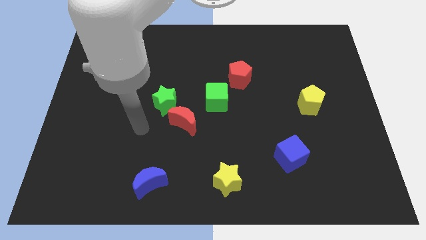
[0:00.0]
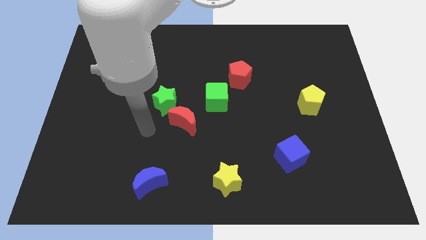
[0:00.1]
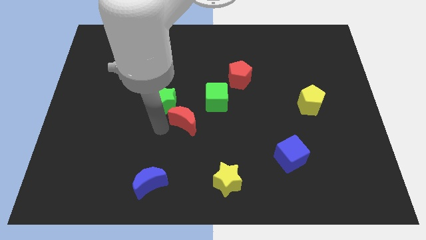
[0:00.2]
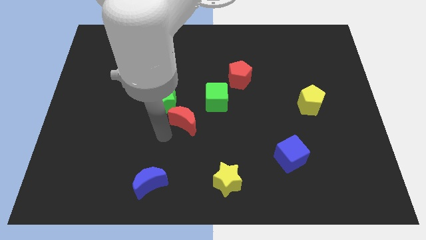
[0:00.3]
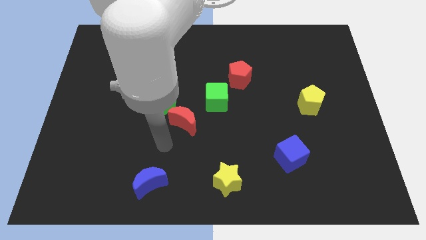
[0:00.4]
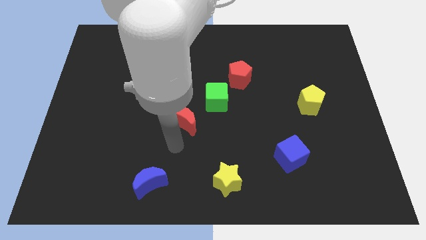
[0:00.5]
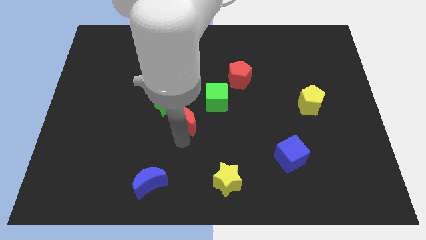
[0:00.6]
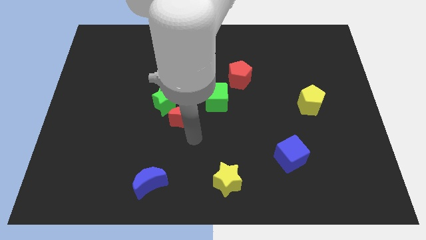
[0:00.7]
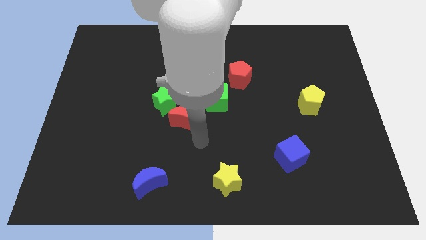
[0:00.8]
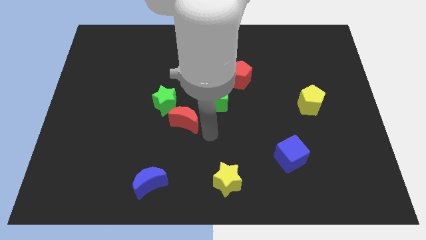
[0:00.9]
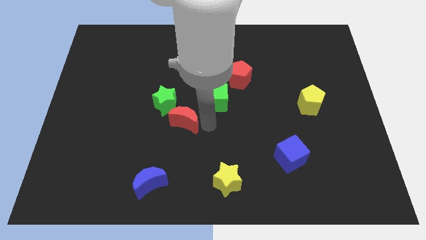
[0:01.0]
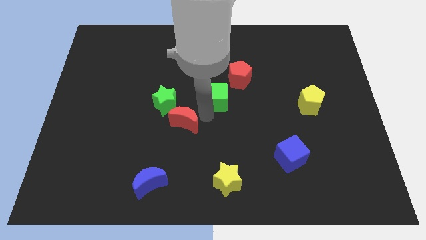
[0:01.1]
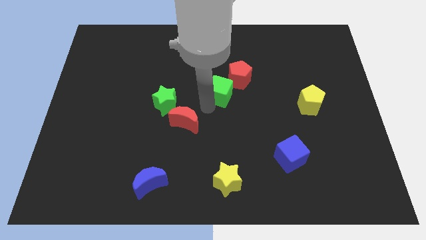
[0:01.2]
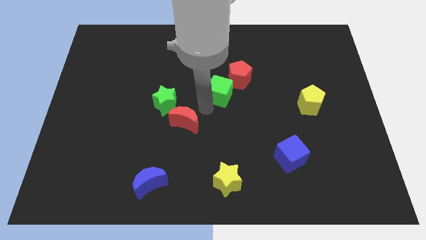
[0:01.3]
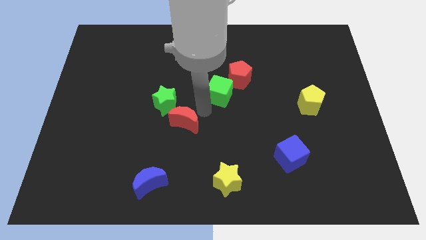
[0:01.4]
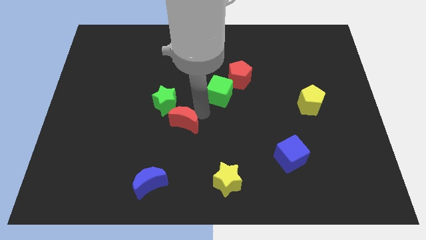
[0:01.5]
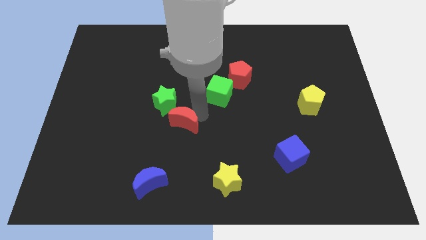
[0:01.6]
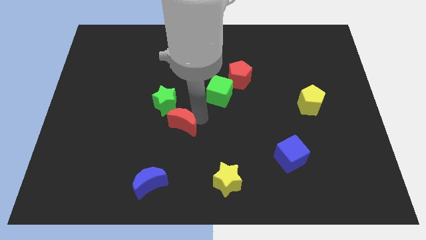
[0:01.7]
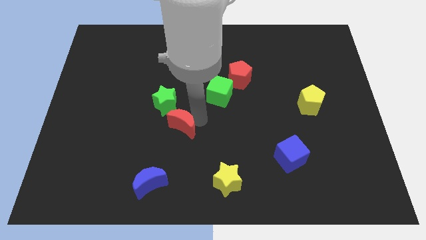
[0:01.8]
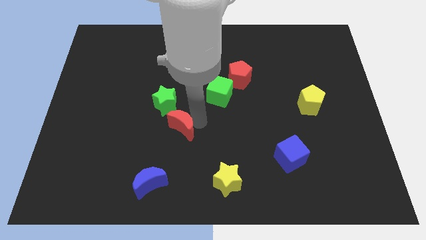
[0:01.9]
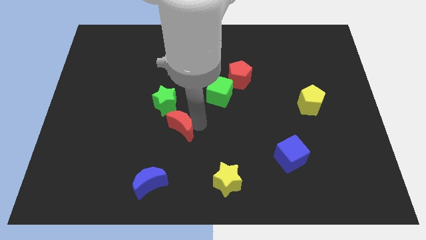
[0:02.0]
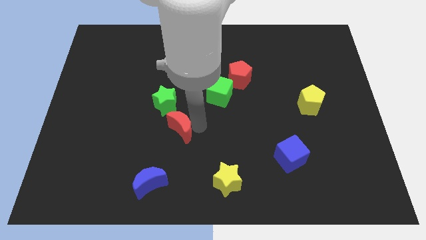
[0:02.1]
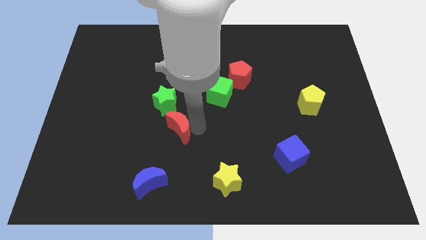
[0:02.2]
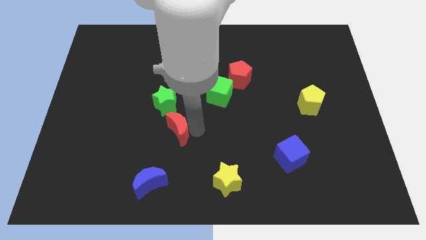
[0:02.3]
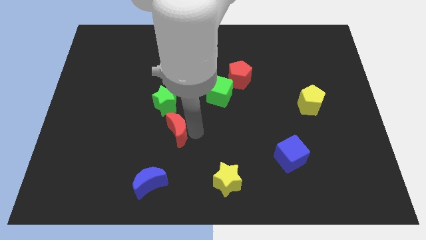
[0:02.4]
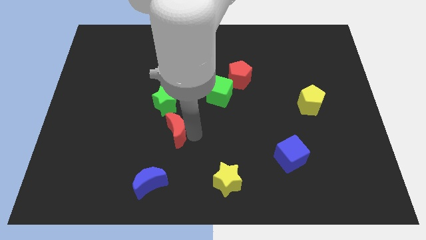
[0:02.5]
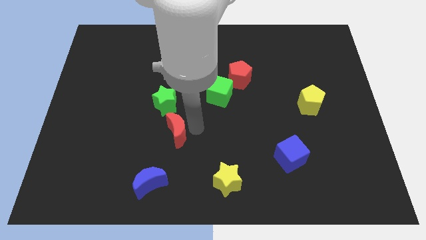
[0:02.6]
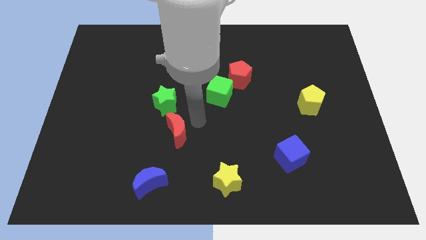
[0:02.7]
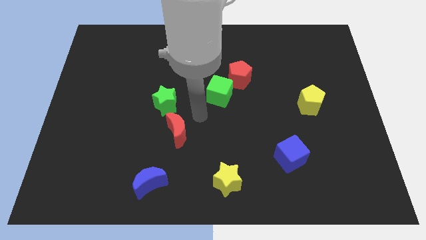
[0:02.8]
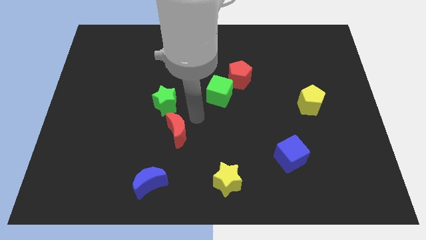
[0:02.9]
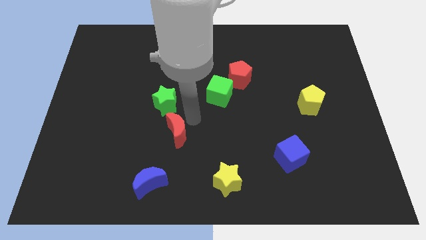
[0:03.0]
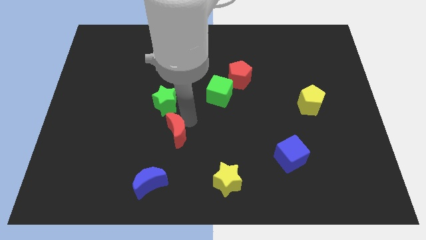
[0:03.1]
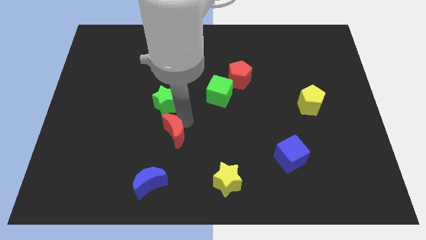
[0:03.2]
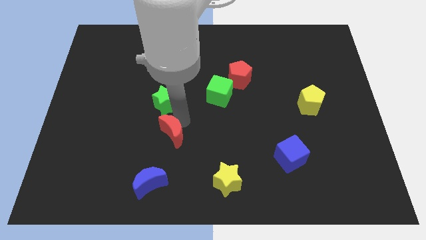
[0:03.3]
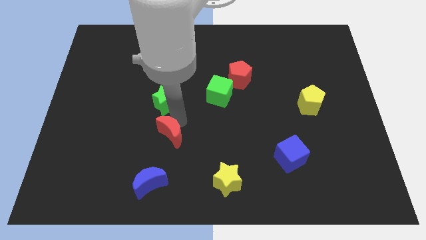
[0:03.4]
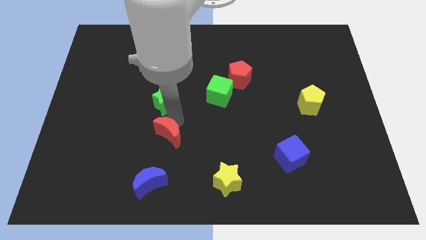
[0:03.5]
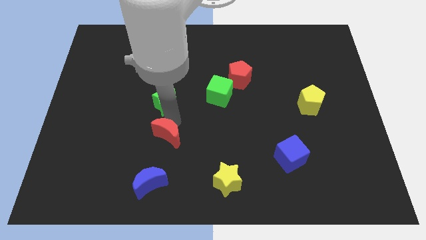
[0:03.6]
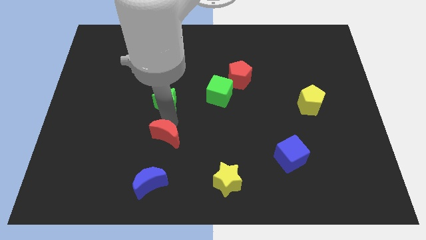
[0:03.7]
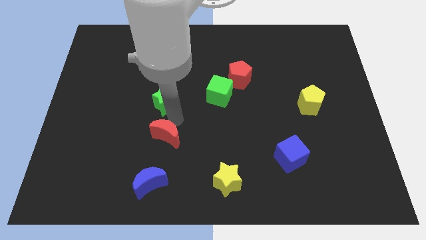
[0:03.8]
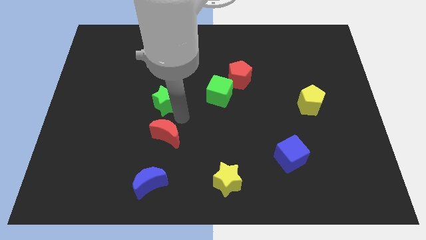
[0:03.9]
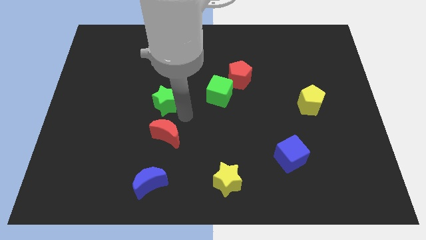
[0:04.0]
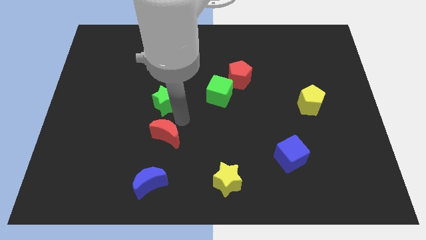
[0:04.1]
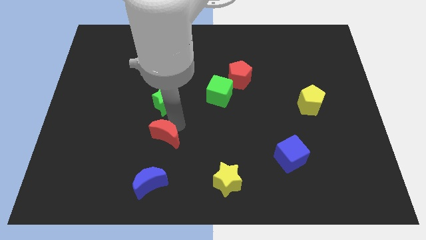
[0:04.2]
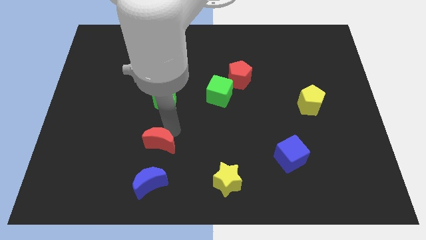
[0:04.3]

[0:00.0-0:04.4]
slightly move the red moon diagonally downwards and to the left

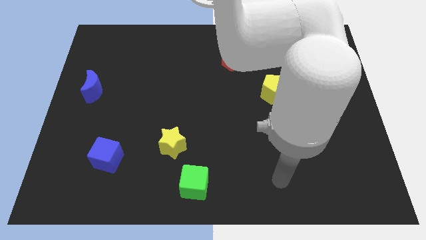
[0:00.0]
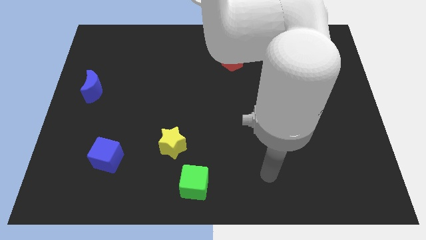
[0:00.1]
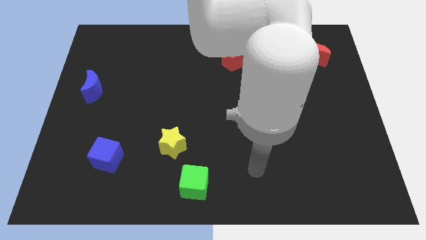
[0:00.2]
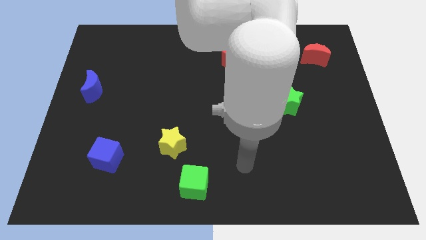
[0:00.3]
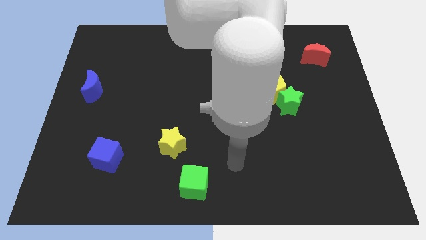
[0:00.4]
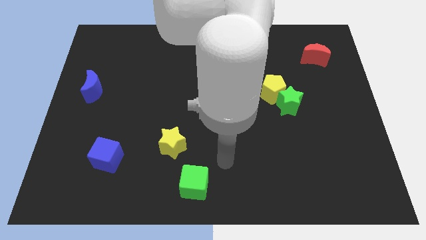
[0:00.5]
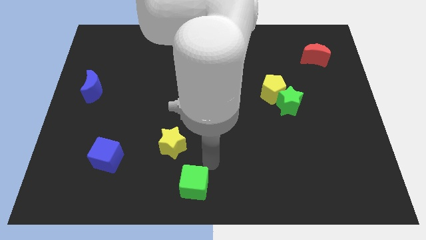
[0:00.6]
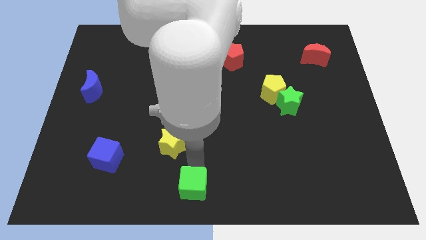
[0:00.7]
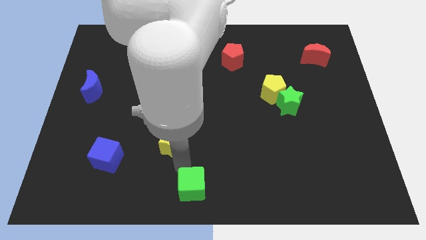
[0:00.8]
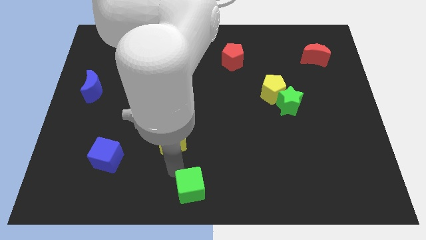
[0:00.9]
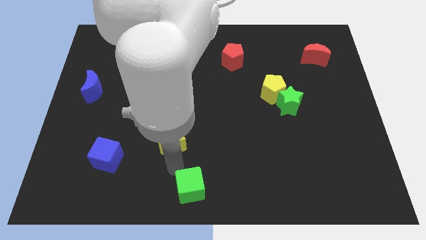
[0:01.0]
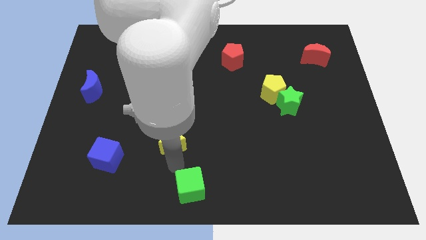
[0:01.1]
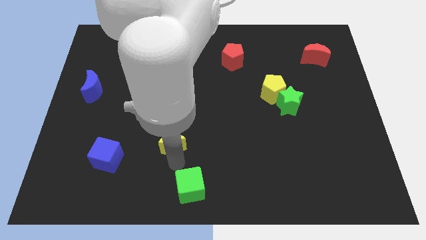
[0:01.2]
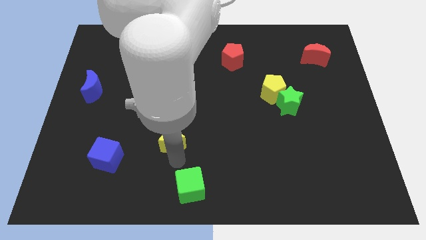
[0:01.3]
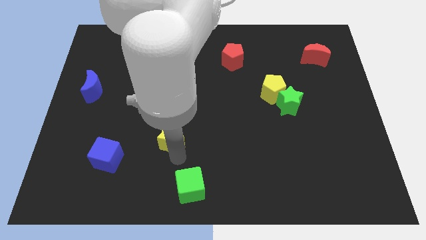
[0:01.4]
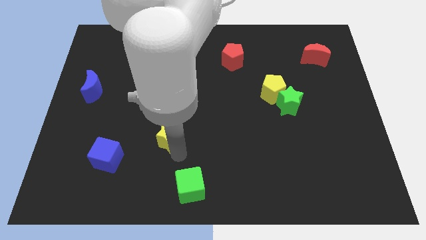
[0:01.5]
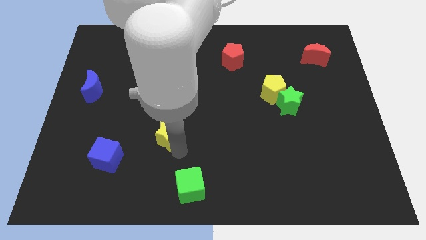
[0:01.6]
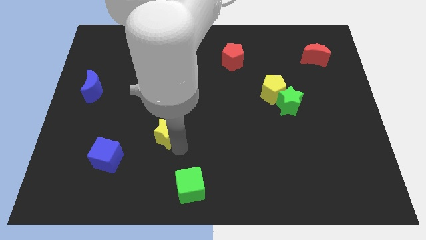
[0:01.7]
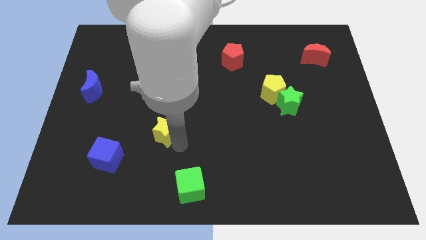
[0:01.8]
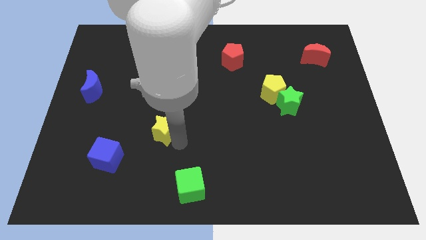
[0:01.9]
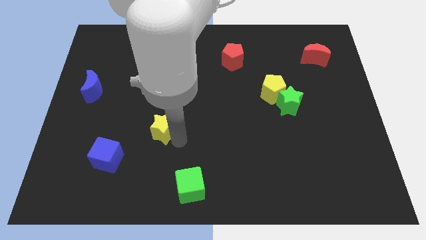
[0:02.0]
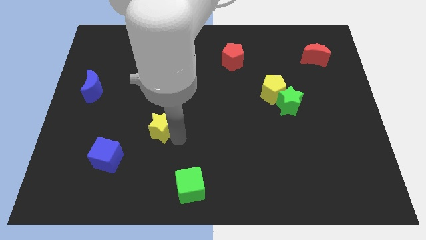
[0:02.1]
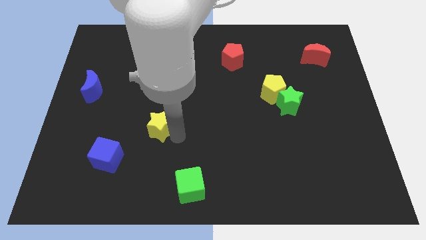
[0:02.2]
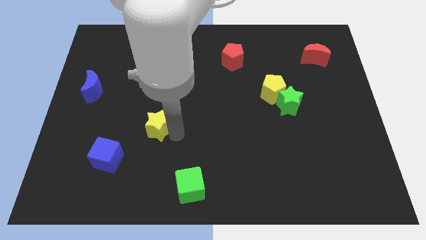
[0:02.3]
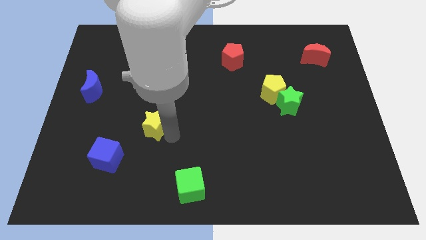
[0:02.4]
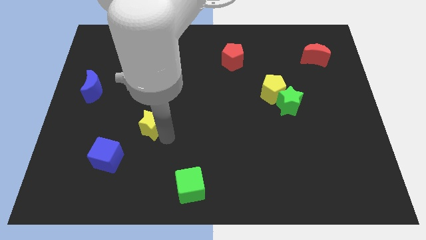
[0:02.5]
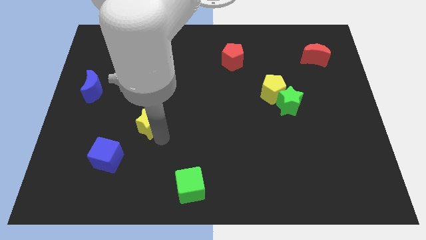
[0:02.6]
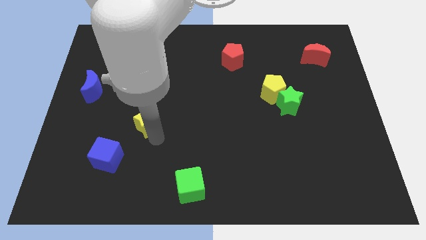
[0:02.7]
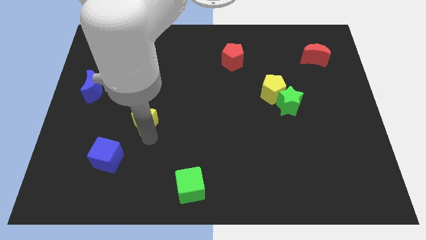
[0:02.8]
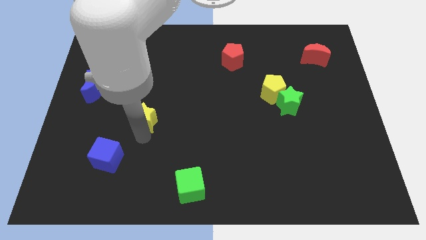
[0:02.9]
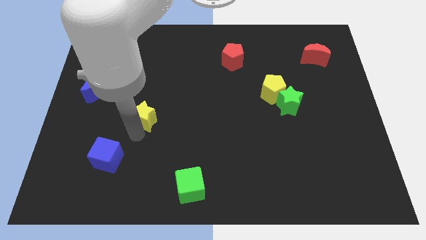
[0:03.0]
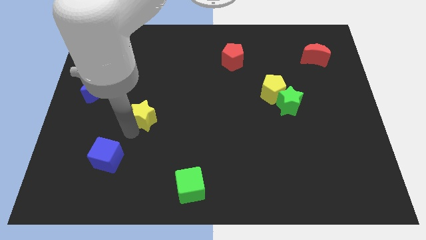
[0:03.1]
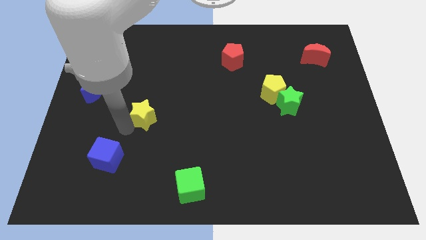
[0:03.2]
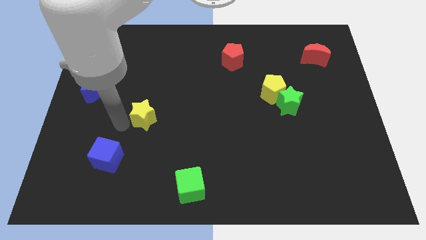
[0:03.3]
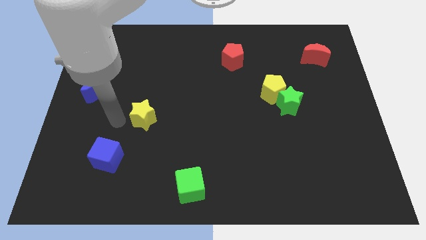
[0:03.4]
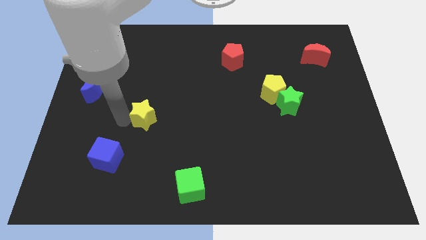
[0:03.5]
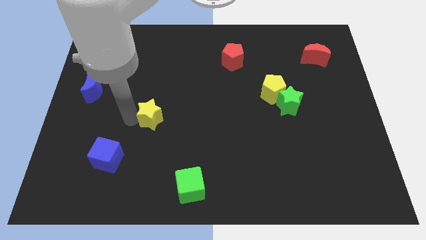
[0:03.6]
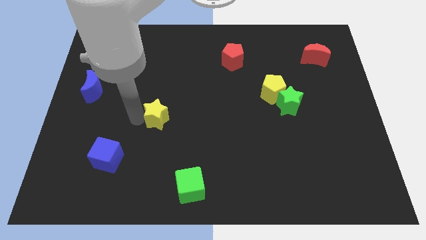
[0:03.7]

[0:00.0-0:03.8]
move the yellow star upwards a bit

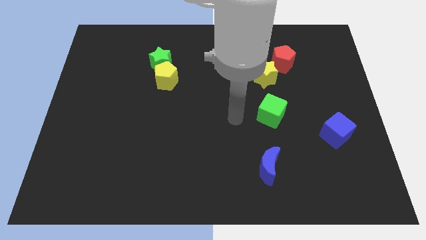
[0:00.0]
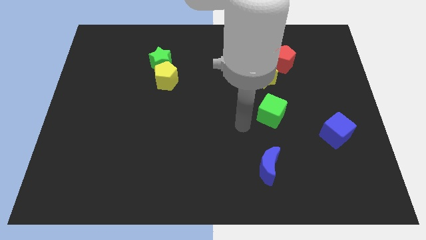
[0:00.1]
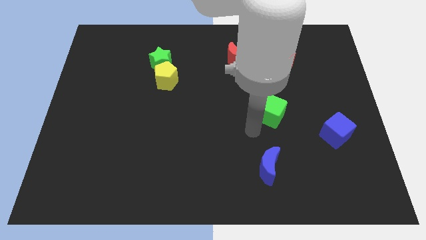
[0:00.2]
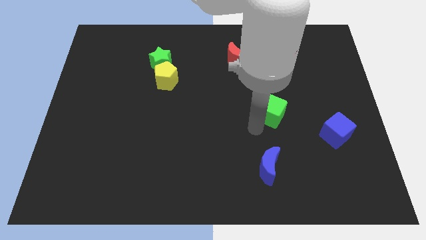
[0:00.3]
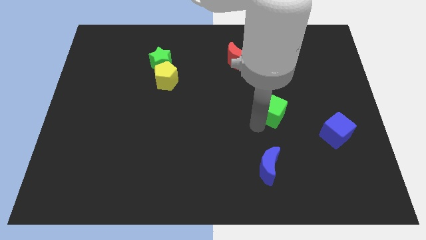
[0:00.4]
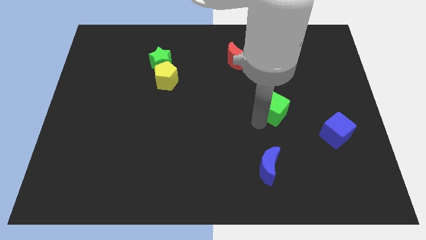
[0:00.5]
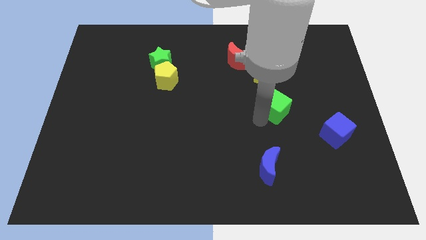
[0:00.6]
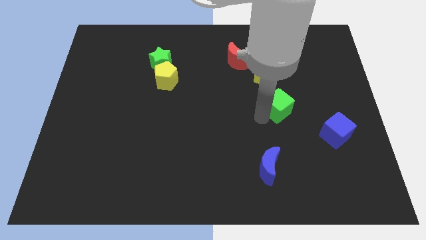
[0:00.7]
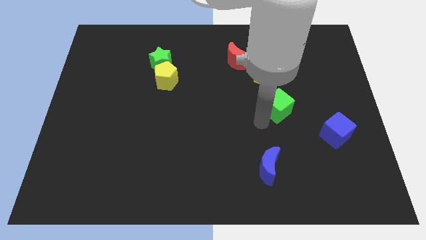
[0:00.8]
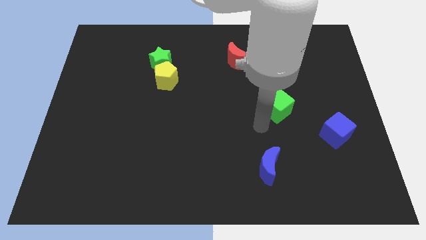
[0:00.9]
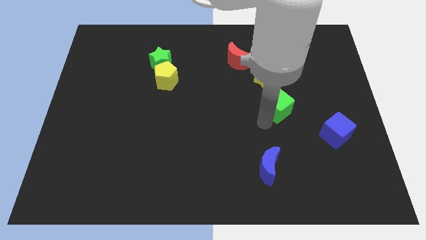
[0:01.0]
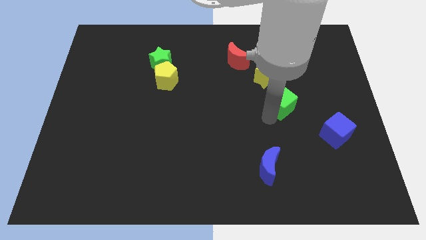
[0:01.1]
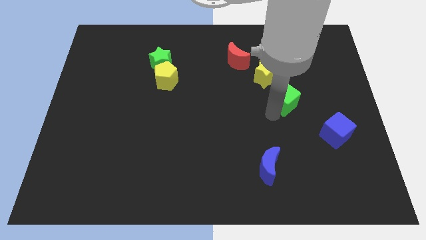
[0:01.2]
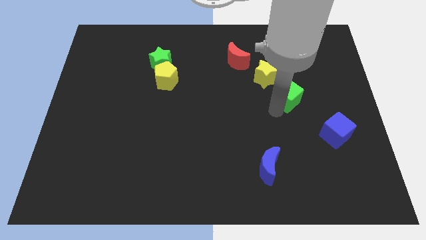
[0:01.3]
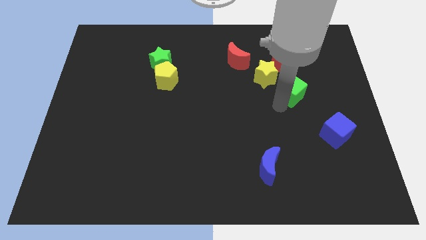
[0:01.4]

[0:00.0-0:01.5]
slide the green cube a little diagonally upwards and right
